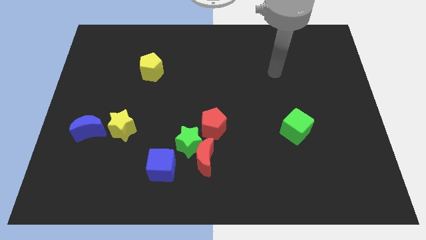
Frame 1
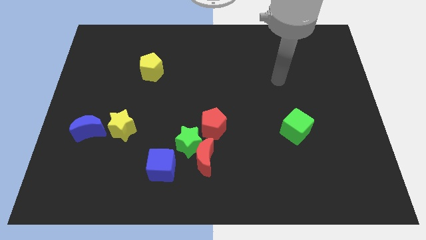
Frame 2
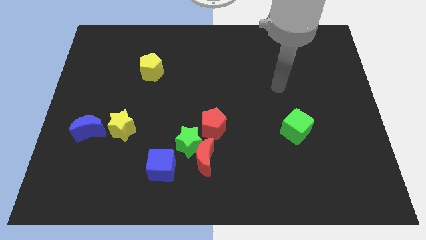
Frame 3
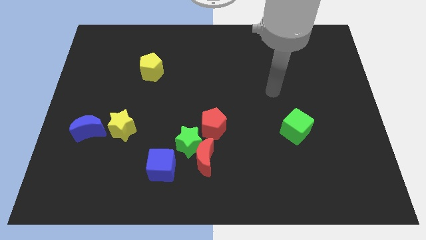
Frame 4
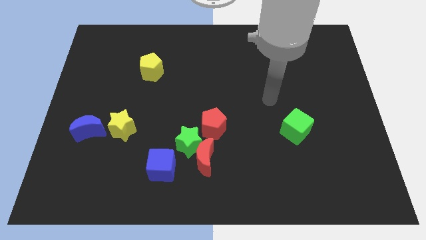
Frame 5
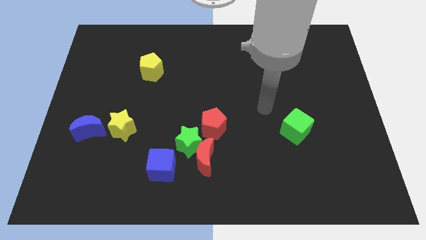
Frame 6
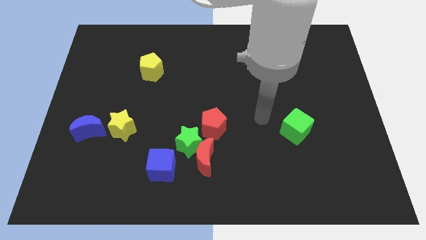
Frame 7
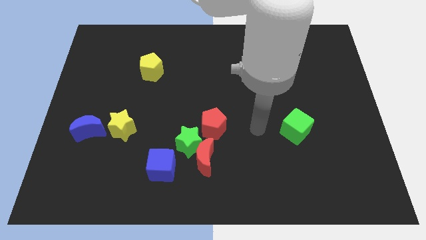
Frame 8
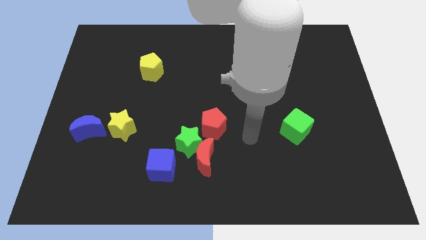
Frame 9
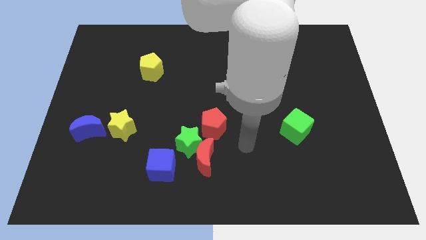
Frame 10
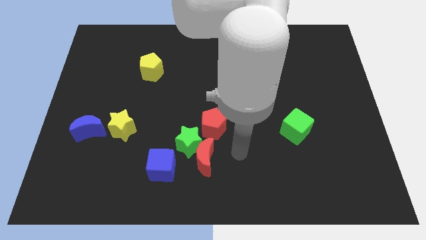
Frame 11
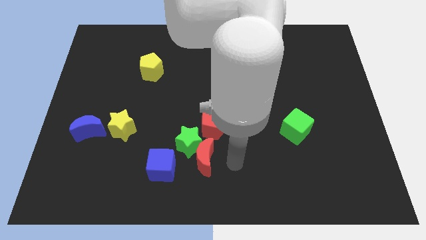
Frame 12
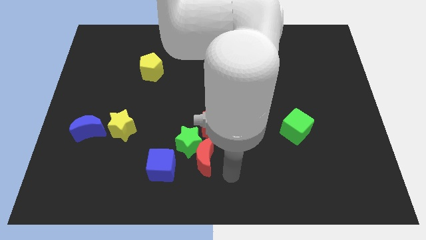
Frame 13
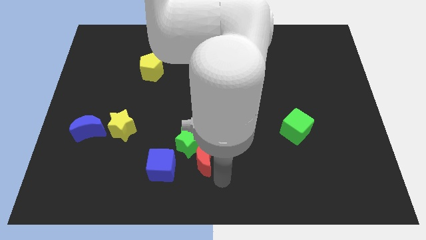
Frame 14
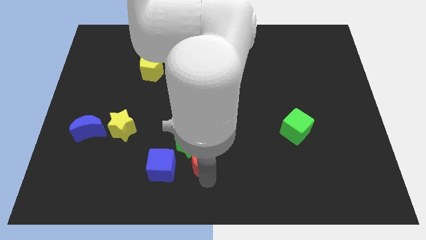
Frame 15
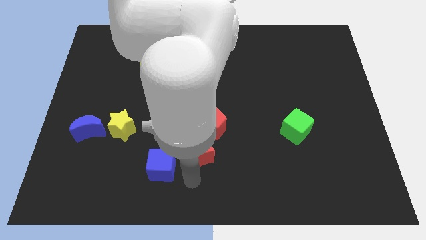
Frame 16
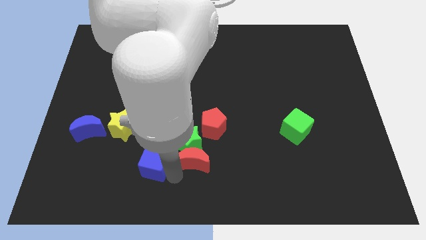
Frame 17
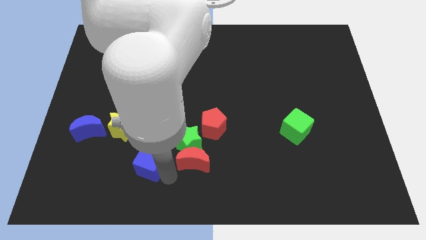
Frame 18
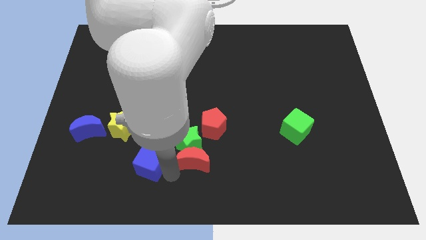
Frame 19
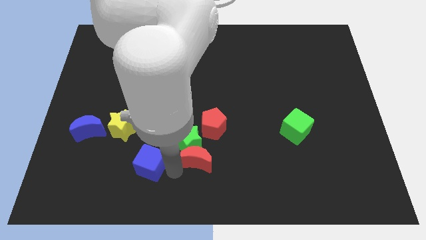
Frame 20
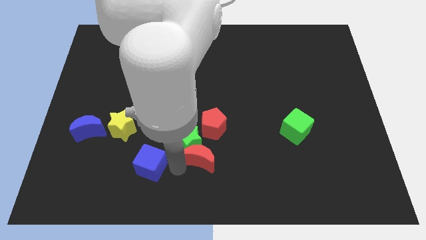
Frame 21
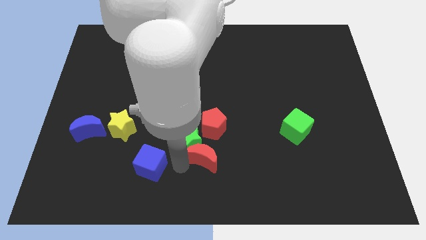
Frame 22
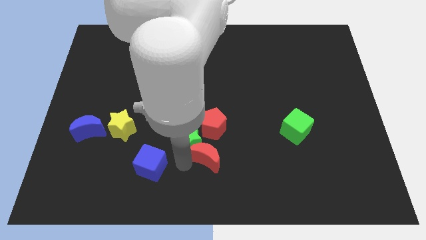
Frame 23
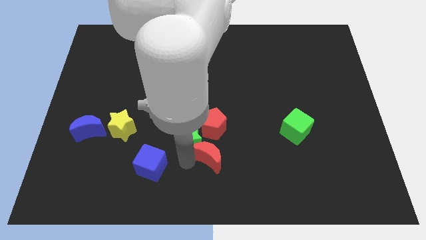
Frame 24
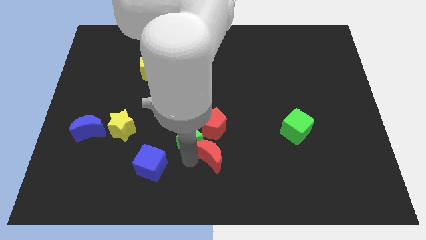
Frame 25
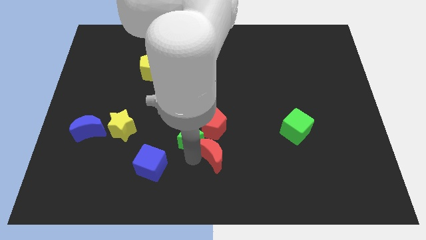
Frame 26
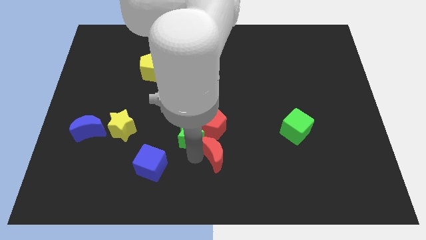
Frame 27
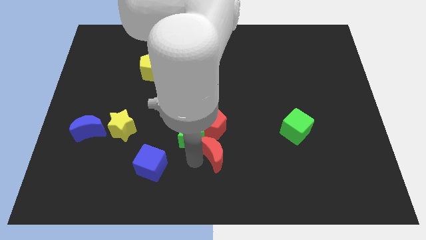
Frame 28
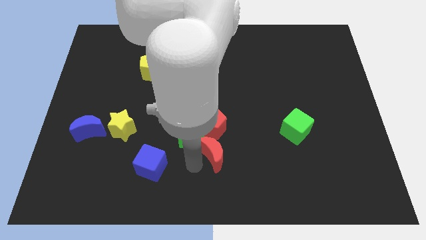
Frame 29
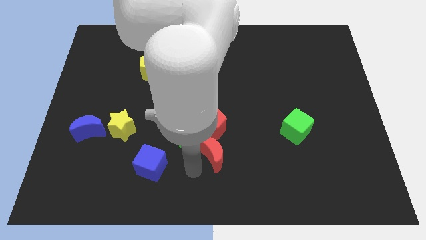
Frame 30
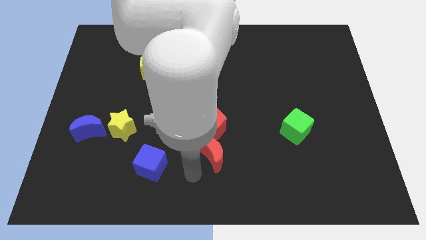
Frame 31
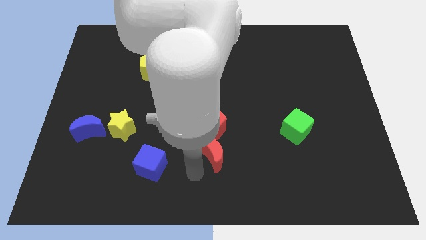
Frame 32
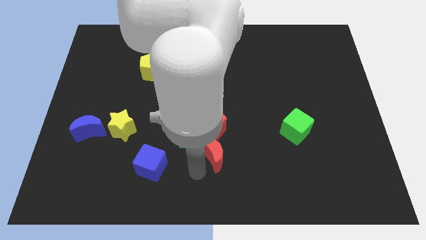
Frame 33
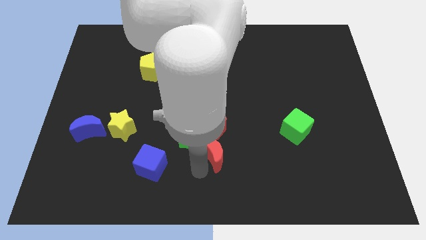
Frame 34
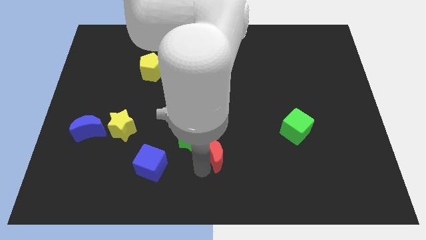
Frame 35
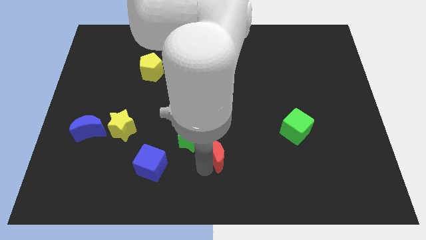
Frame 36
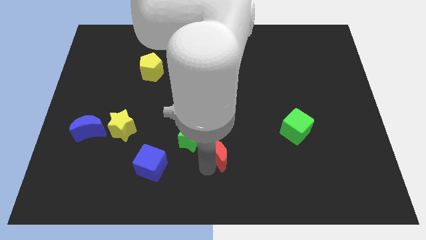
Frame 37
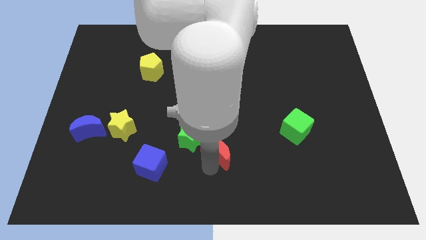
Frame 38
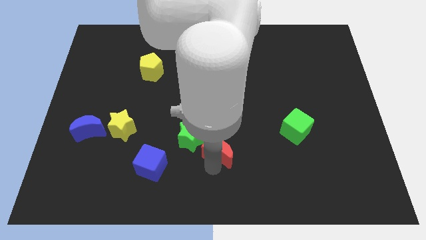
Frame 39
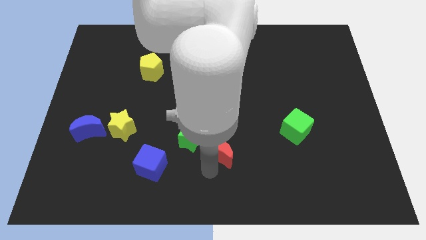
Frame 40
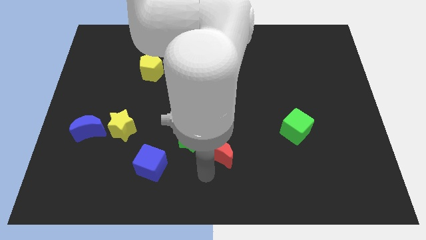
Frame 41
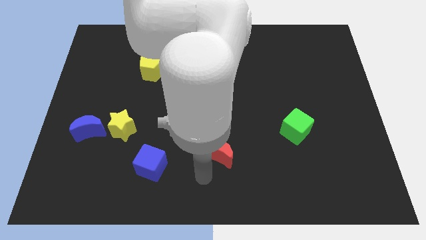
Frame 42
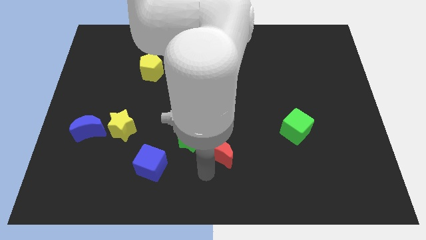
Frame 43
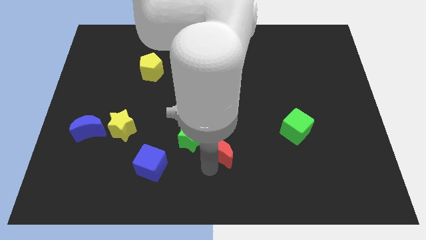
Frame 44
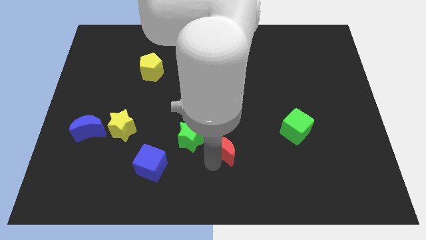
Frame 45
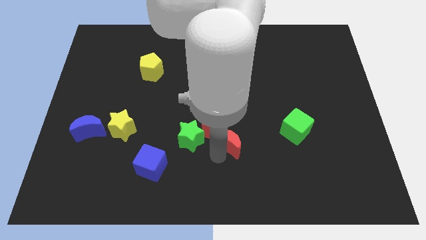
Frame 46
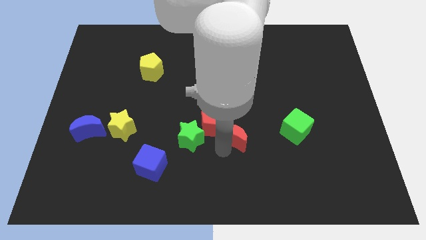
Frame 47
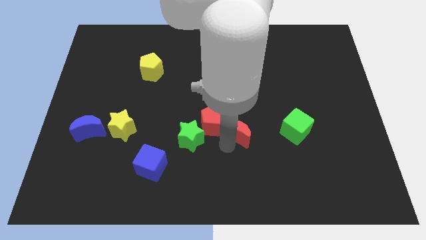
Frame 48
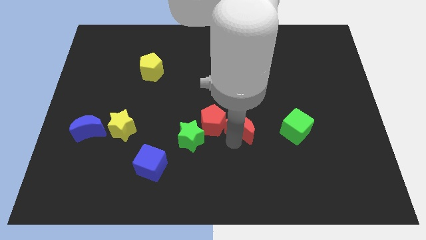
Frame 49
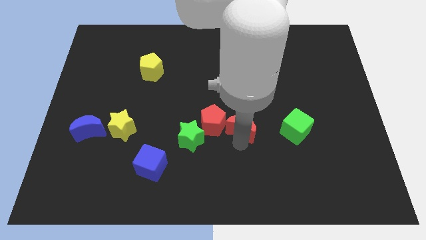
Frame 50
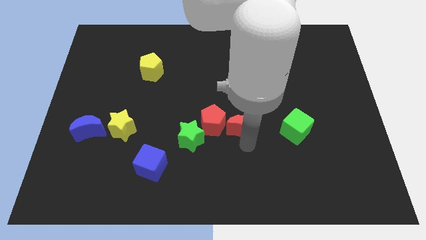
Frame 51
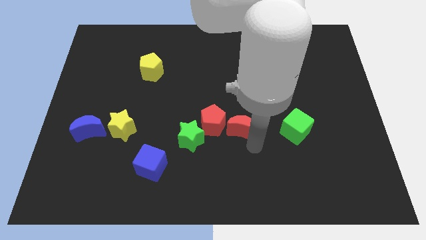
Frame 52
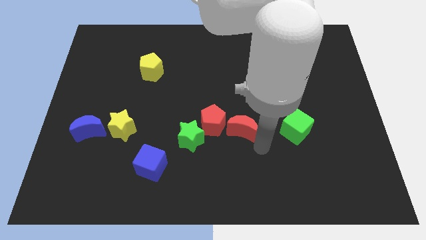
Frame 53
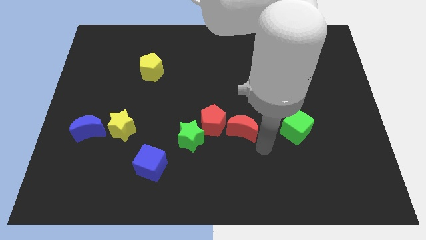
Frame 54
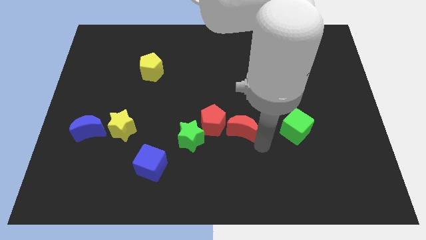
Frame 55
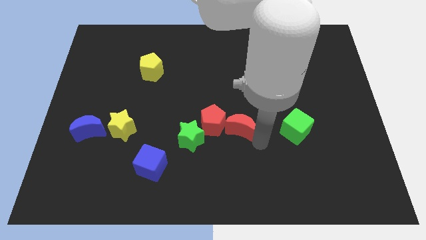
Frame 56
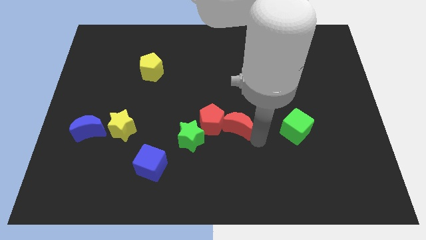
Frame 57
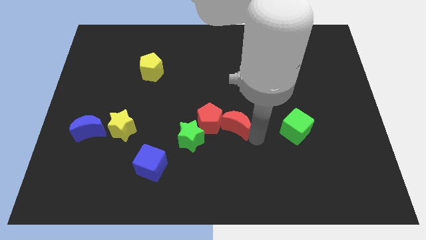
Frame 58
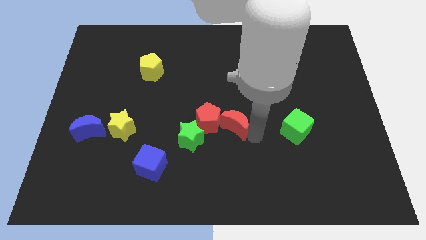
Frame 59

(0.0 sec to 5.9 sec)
slide the red moon to the top right of the green star

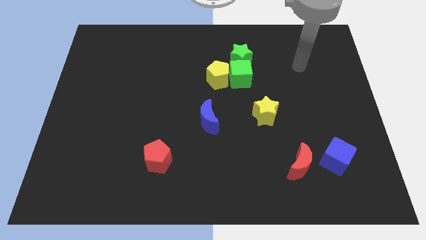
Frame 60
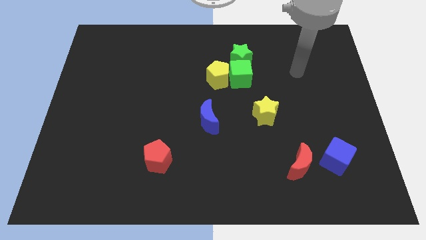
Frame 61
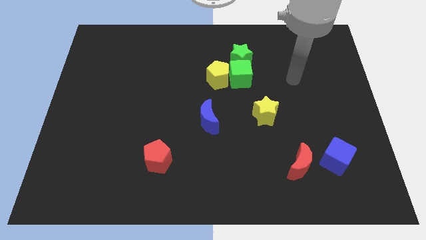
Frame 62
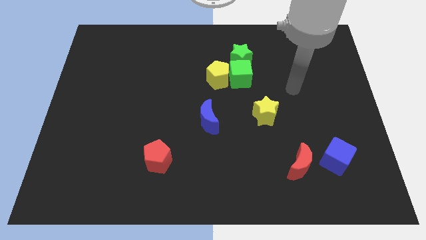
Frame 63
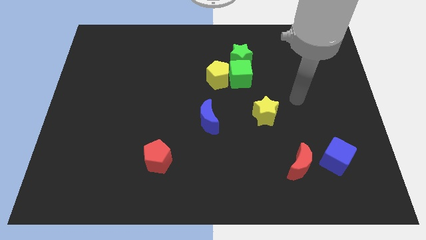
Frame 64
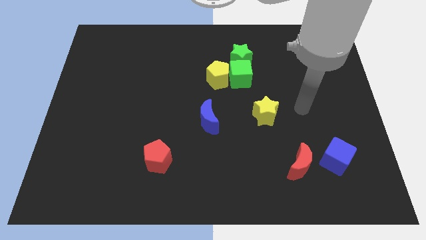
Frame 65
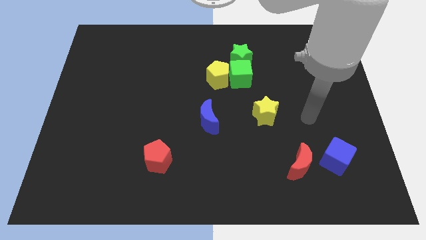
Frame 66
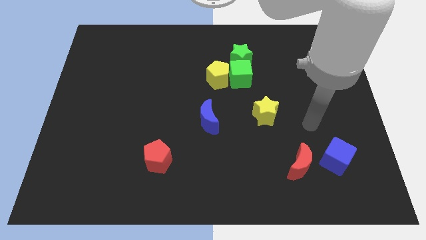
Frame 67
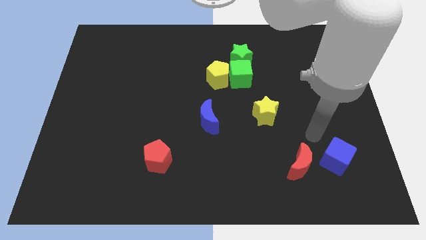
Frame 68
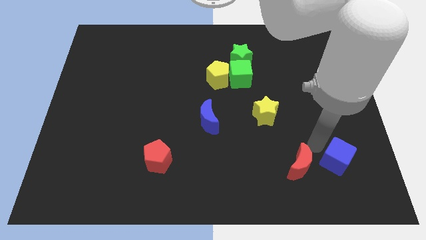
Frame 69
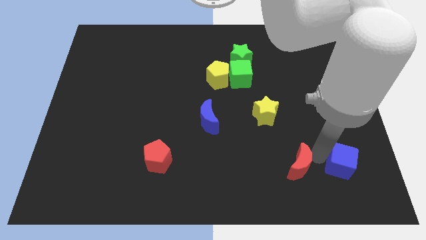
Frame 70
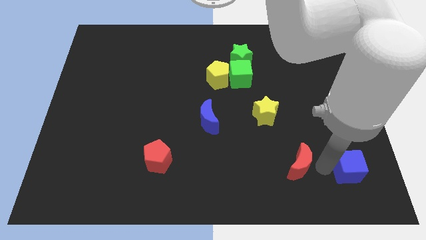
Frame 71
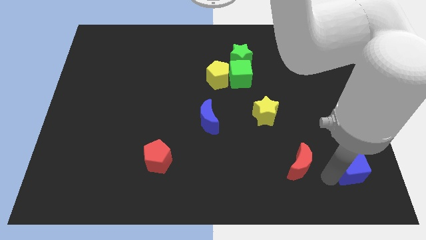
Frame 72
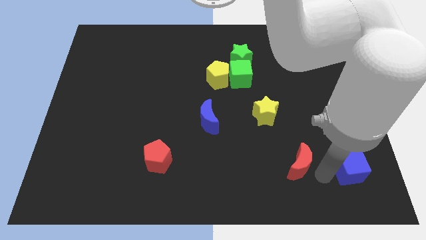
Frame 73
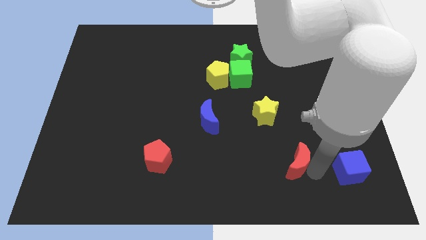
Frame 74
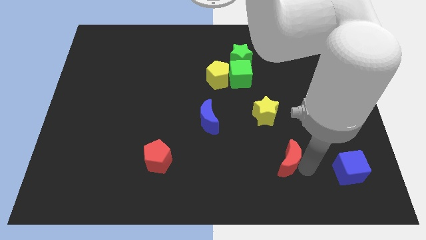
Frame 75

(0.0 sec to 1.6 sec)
slide the red moon to the bottom of the yellow star
